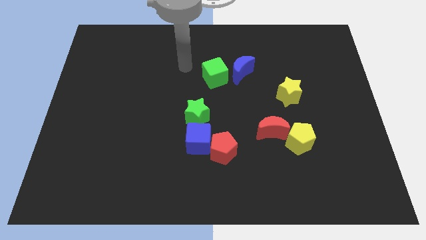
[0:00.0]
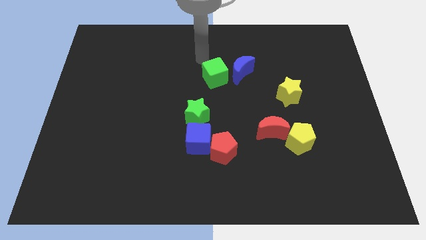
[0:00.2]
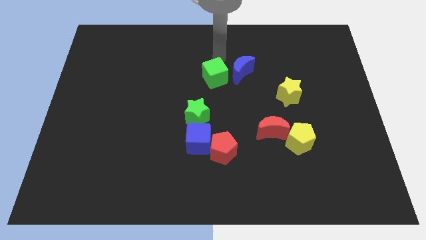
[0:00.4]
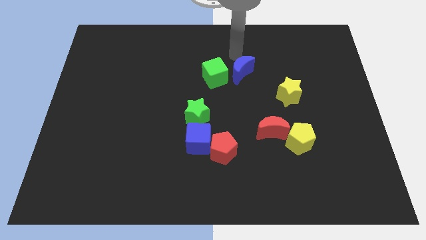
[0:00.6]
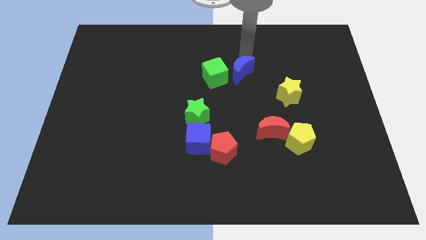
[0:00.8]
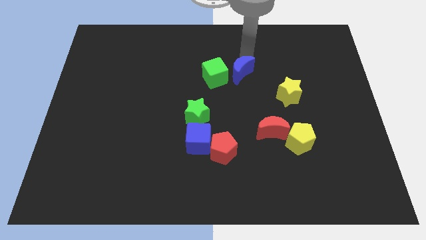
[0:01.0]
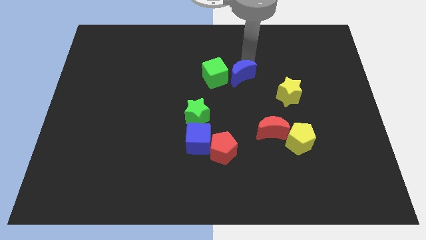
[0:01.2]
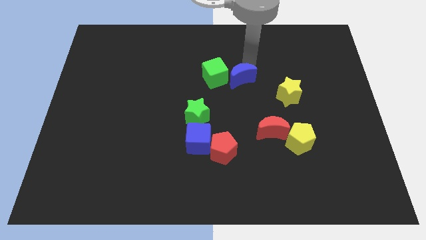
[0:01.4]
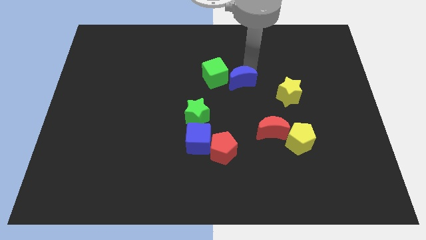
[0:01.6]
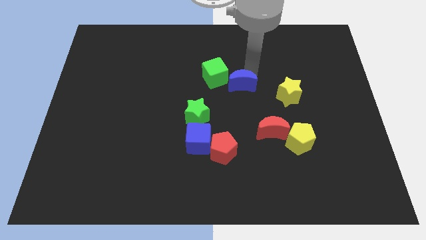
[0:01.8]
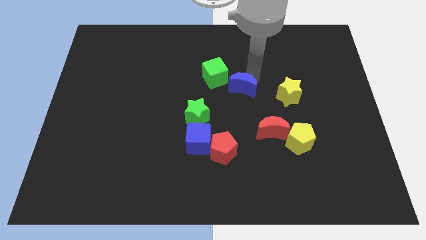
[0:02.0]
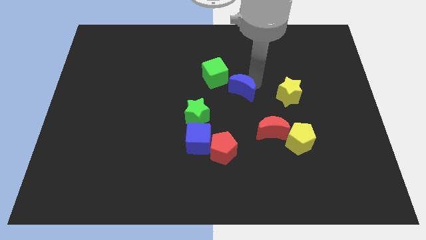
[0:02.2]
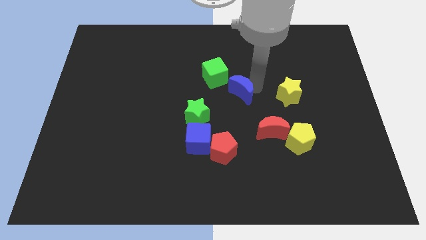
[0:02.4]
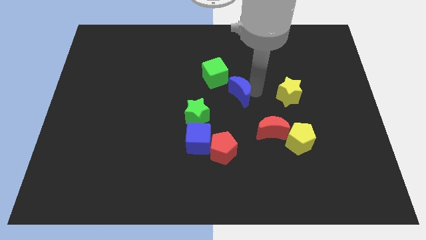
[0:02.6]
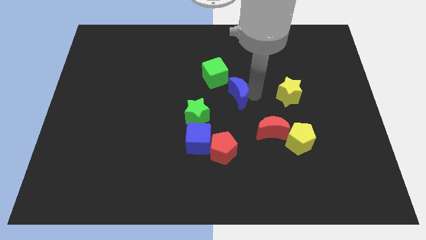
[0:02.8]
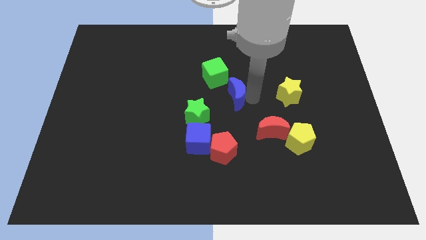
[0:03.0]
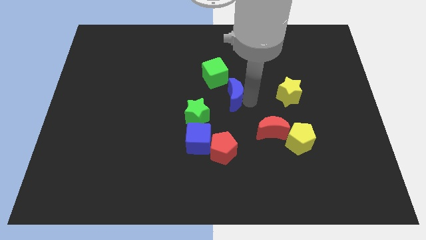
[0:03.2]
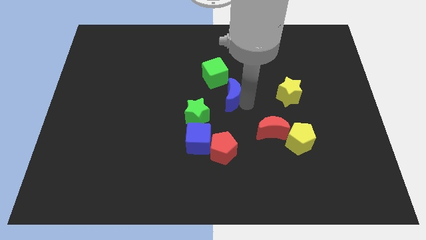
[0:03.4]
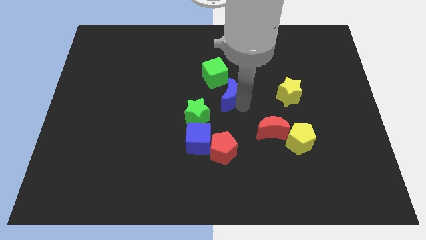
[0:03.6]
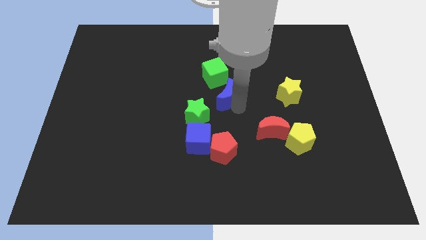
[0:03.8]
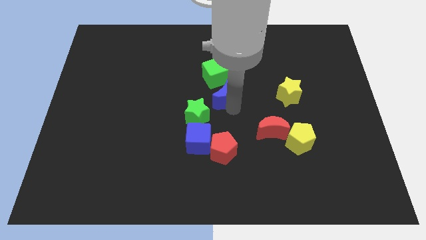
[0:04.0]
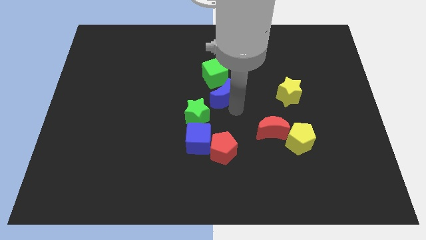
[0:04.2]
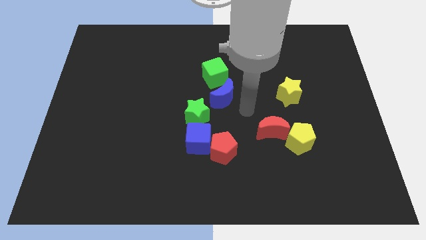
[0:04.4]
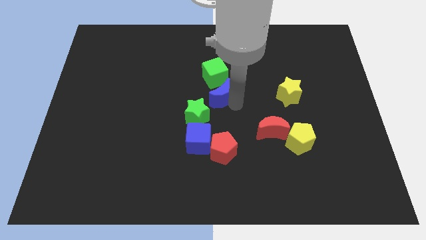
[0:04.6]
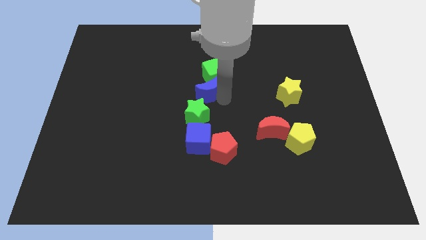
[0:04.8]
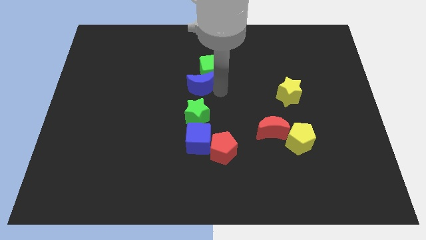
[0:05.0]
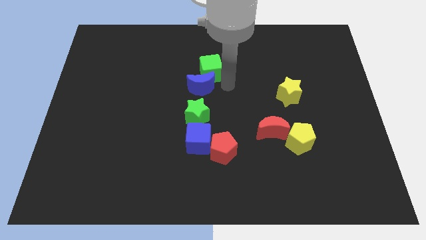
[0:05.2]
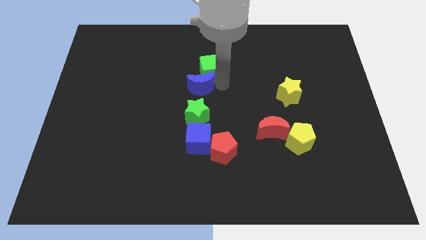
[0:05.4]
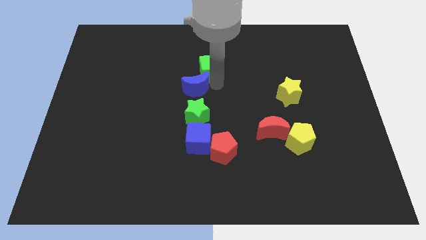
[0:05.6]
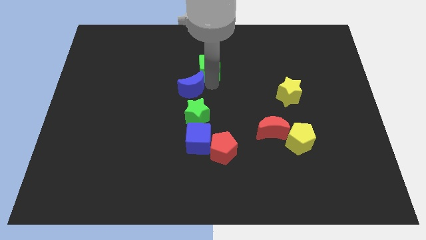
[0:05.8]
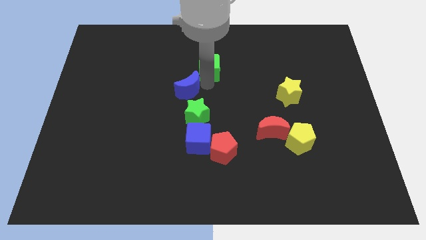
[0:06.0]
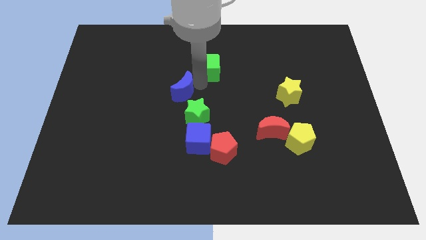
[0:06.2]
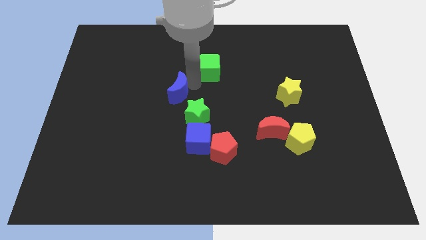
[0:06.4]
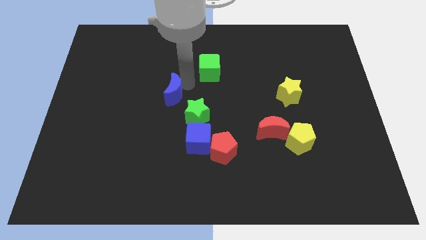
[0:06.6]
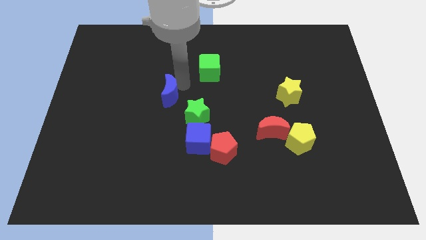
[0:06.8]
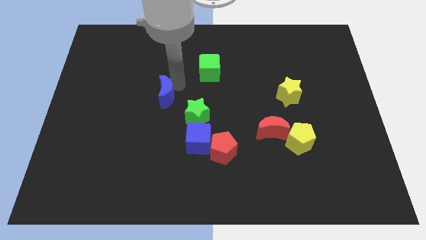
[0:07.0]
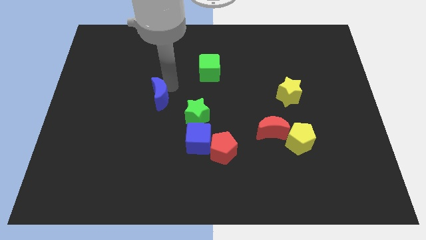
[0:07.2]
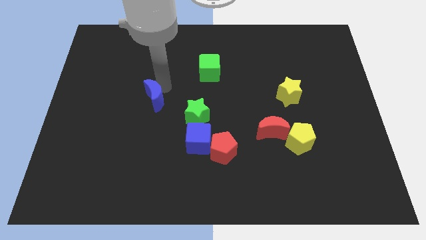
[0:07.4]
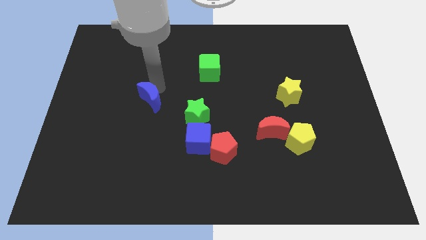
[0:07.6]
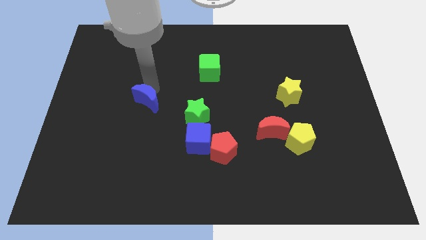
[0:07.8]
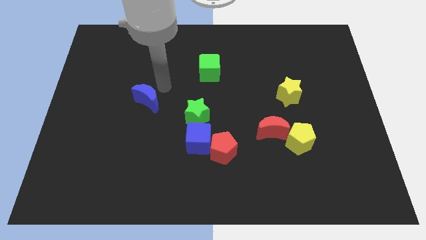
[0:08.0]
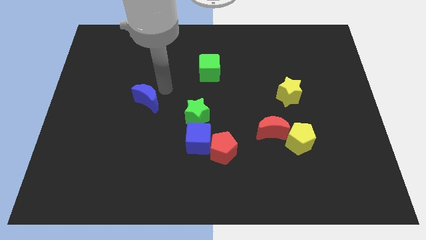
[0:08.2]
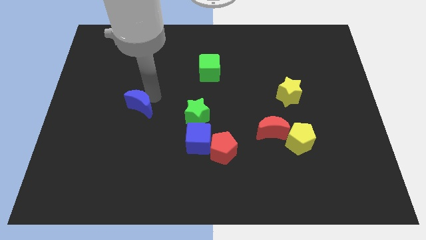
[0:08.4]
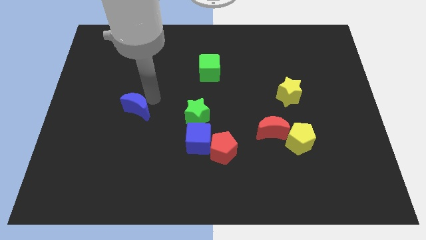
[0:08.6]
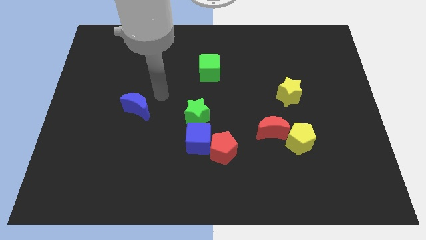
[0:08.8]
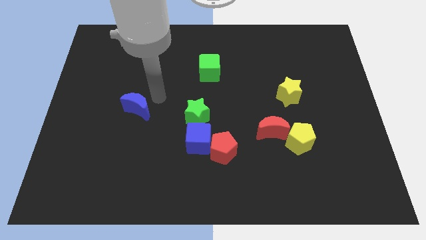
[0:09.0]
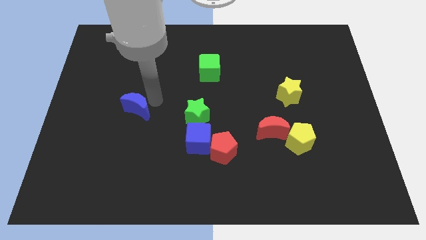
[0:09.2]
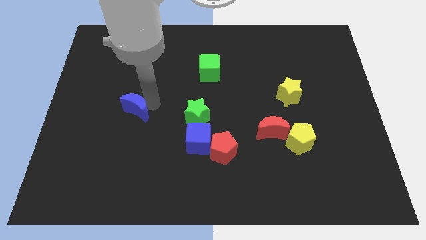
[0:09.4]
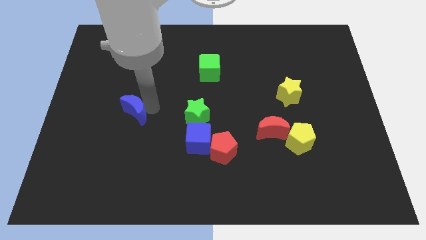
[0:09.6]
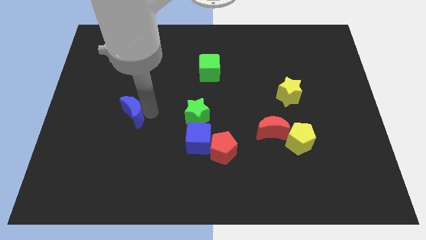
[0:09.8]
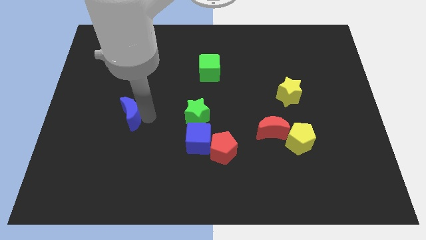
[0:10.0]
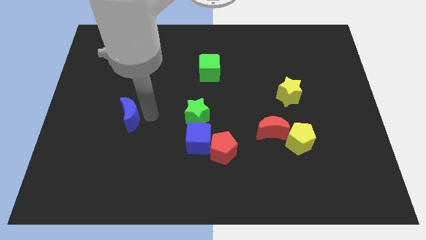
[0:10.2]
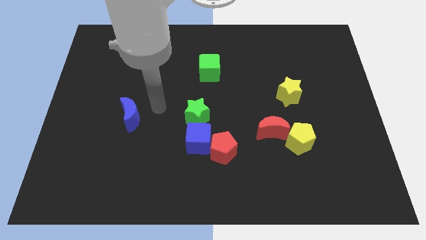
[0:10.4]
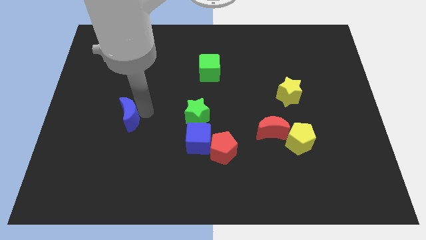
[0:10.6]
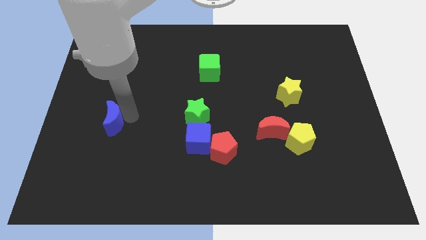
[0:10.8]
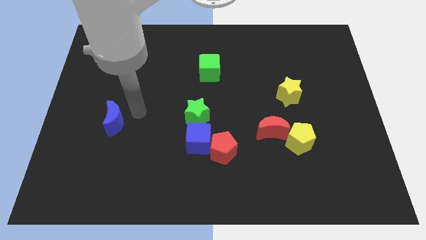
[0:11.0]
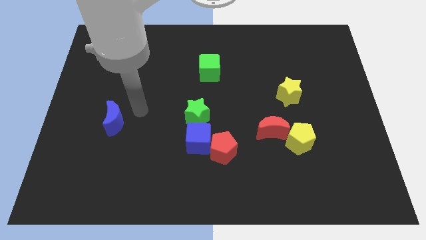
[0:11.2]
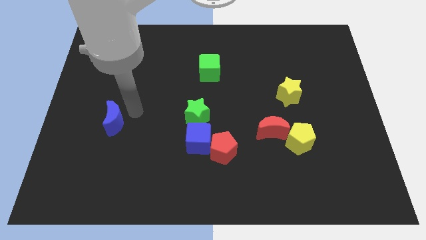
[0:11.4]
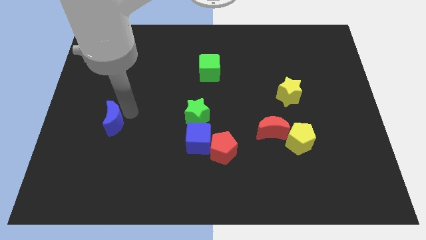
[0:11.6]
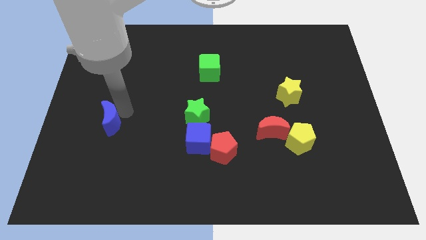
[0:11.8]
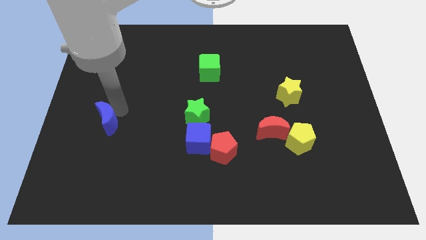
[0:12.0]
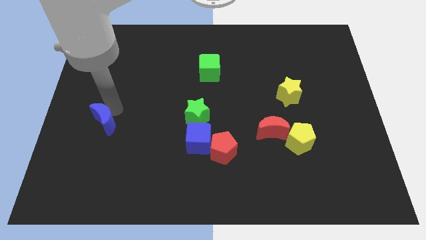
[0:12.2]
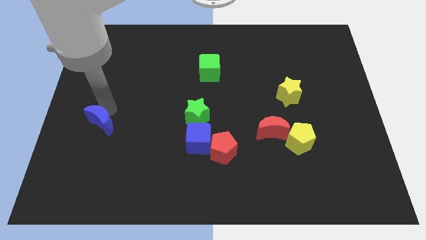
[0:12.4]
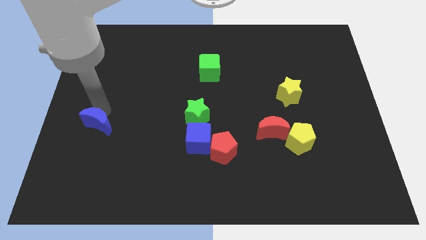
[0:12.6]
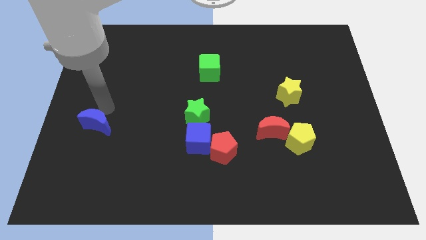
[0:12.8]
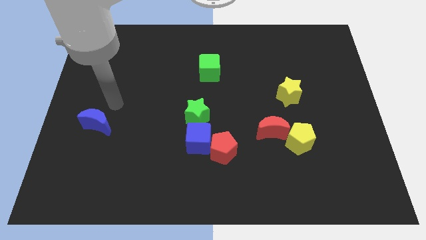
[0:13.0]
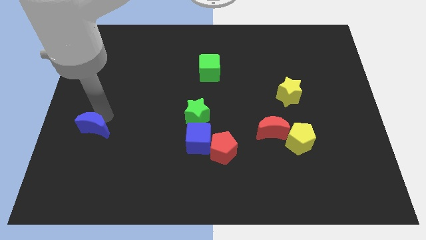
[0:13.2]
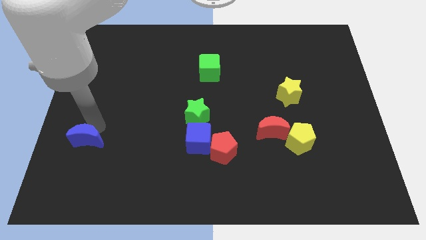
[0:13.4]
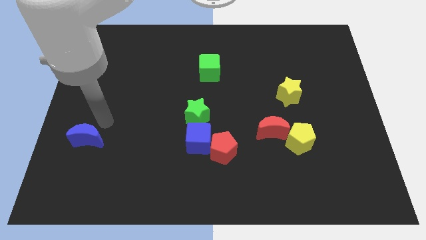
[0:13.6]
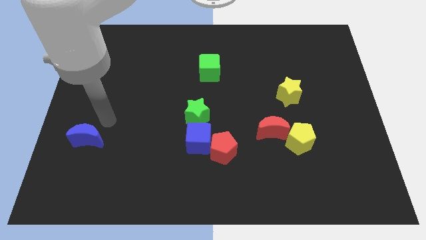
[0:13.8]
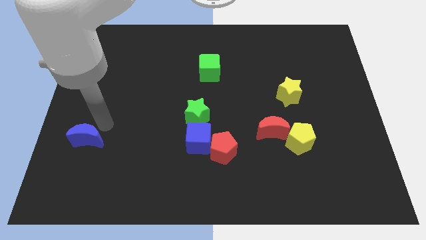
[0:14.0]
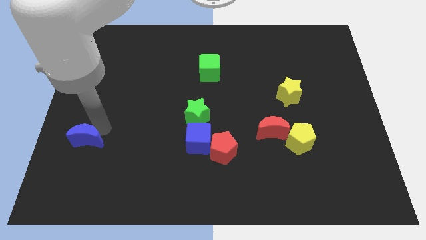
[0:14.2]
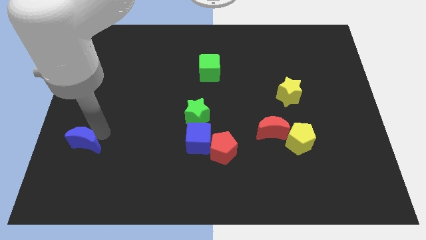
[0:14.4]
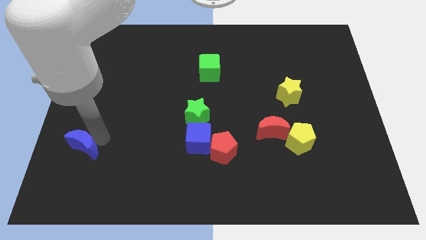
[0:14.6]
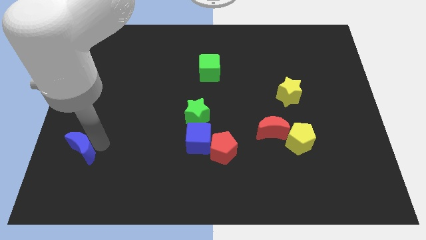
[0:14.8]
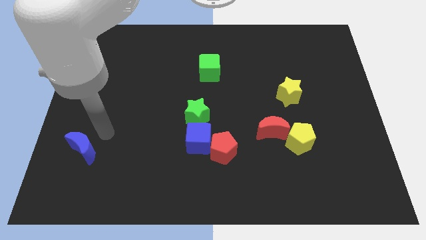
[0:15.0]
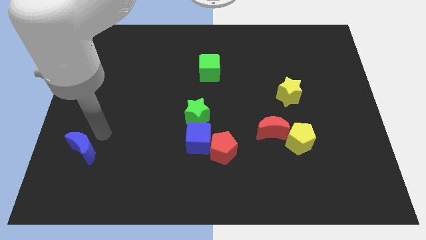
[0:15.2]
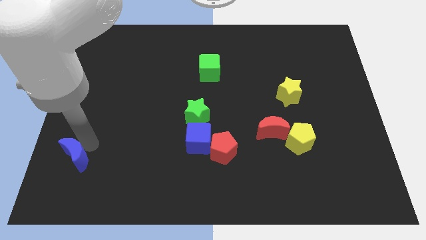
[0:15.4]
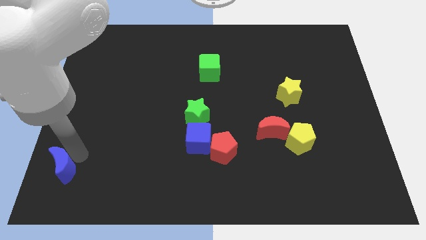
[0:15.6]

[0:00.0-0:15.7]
push the blue moon to the bottom left corner
